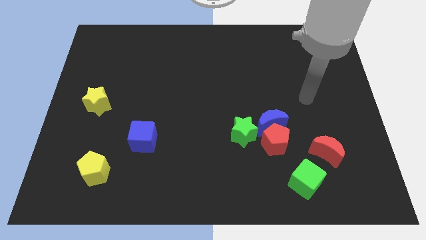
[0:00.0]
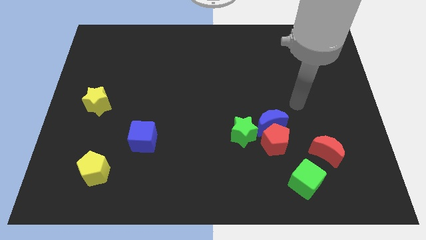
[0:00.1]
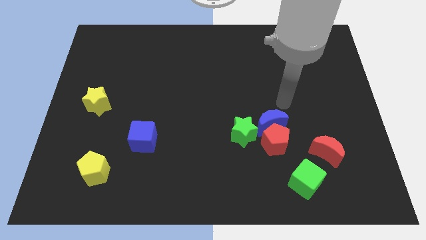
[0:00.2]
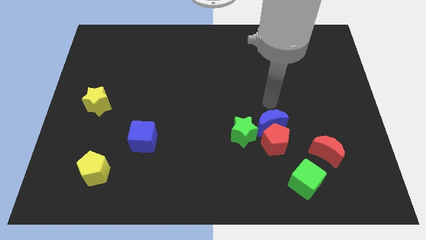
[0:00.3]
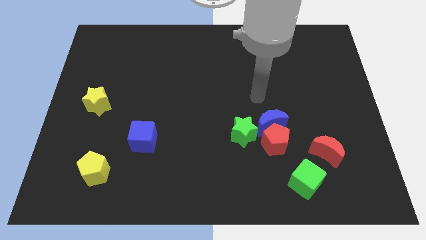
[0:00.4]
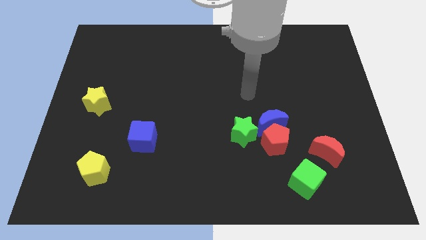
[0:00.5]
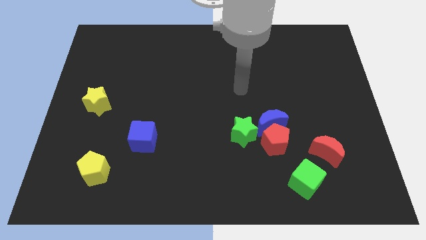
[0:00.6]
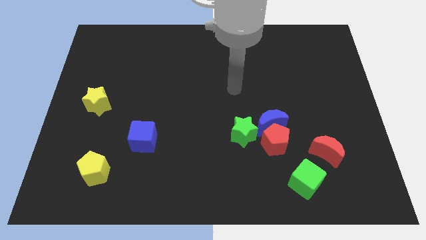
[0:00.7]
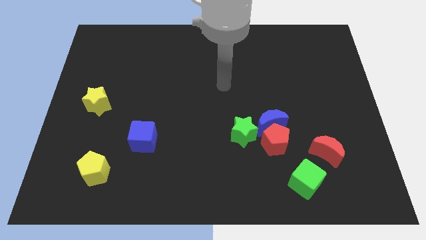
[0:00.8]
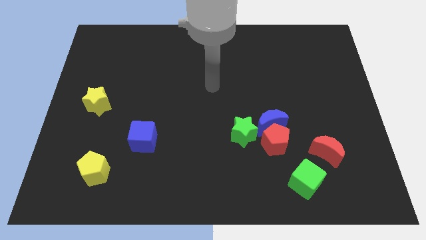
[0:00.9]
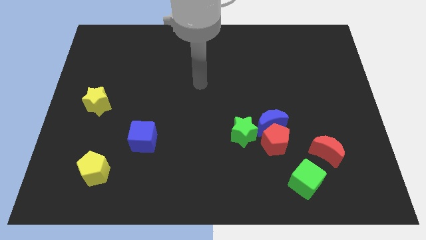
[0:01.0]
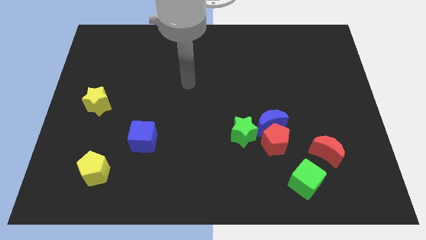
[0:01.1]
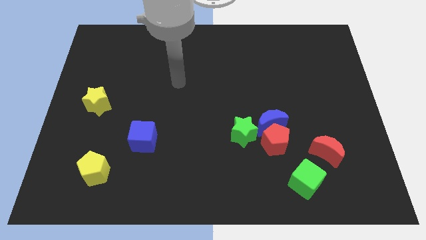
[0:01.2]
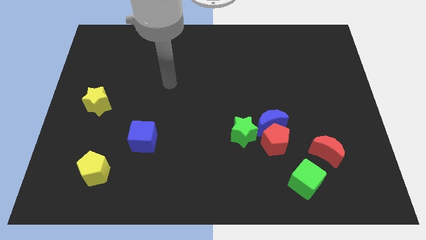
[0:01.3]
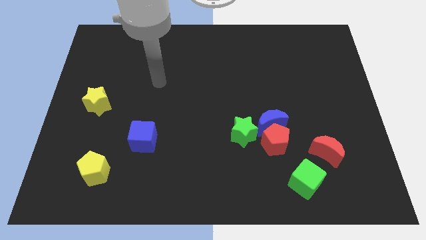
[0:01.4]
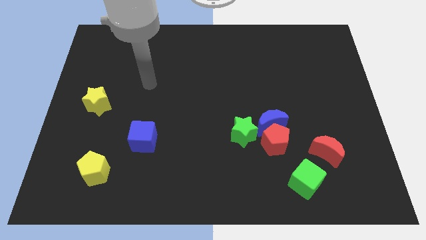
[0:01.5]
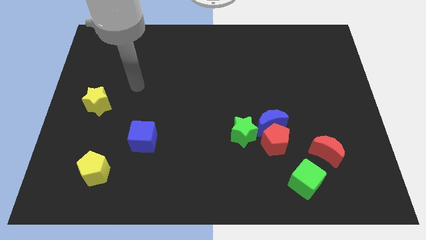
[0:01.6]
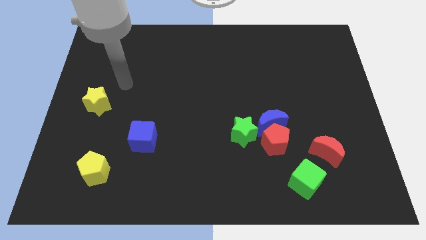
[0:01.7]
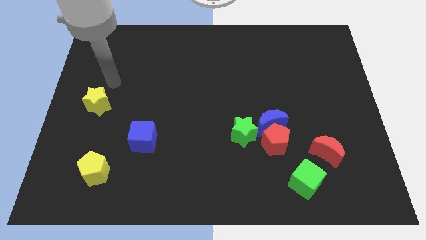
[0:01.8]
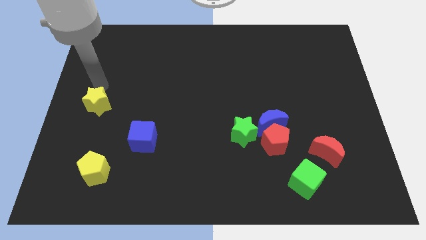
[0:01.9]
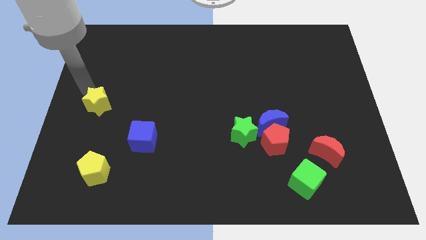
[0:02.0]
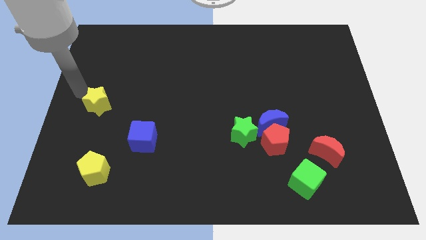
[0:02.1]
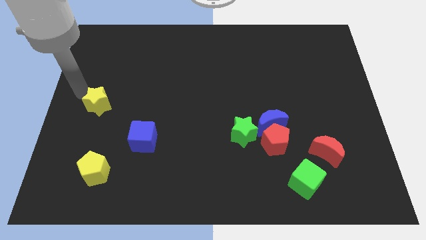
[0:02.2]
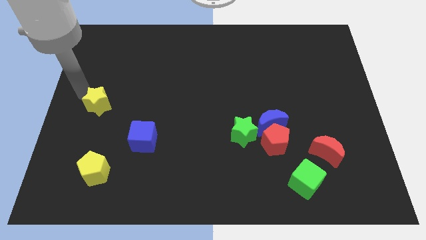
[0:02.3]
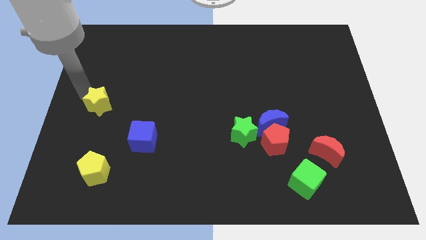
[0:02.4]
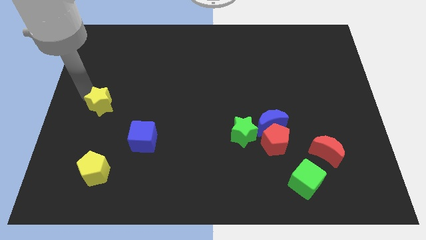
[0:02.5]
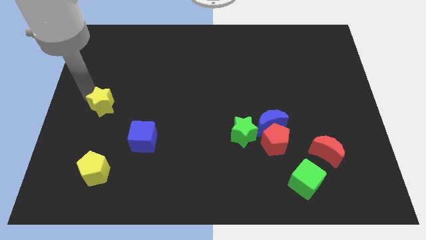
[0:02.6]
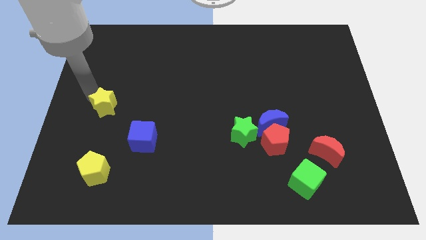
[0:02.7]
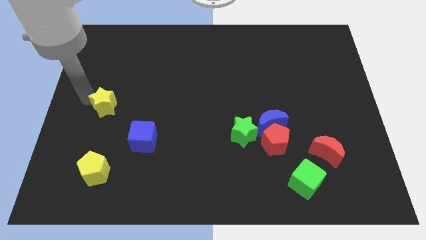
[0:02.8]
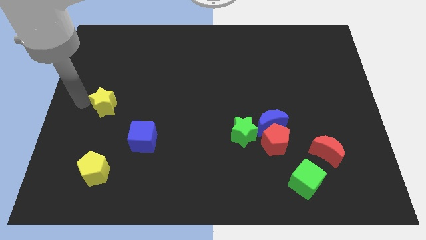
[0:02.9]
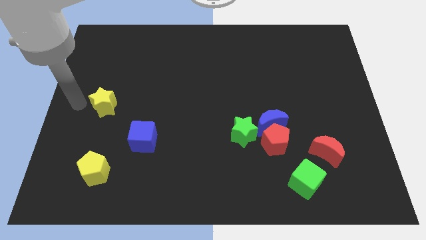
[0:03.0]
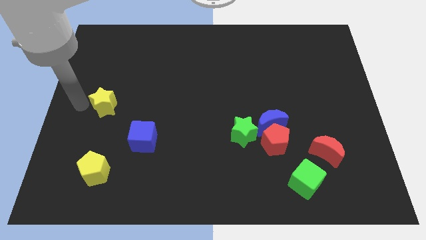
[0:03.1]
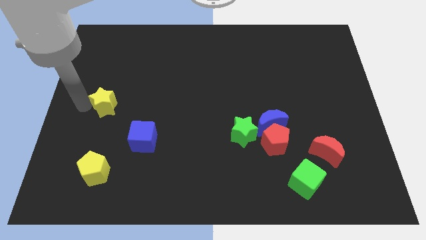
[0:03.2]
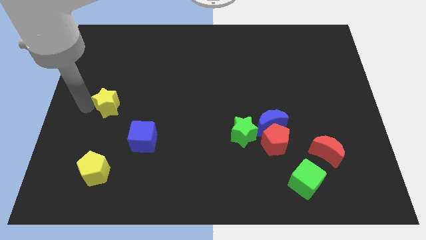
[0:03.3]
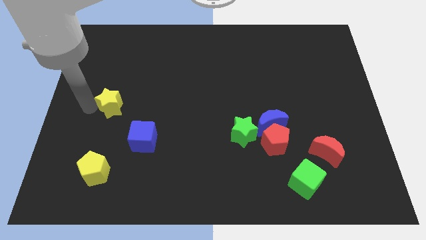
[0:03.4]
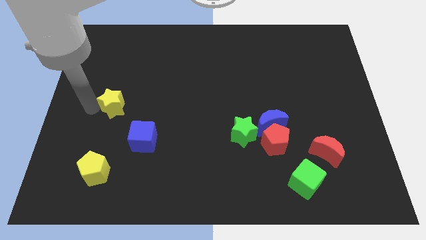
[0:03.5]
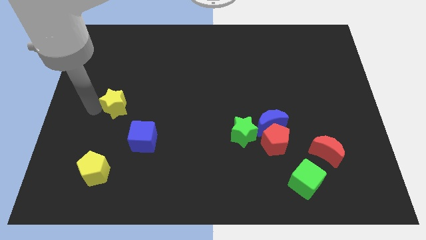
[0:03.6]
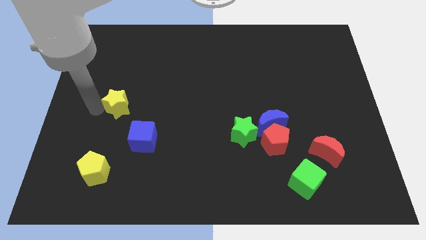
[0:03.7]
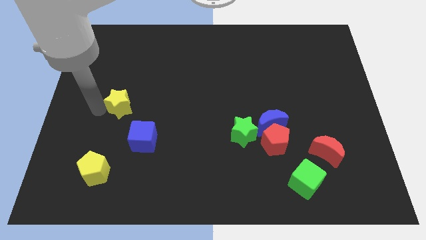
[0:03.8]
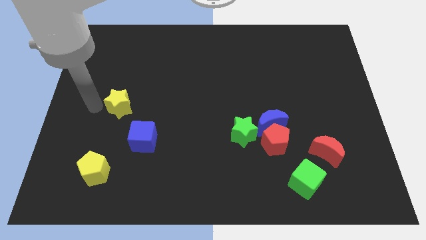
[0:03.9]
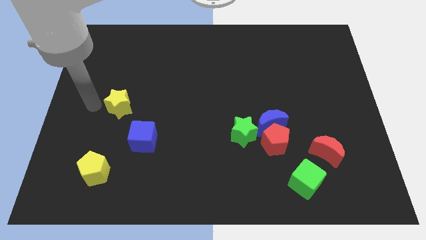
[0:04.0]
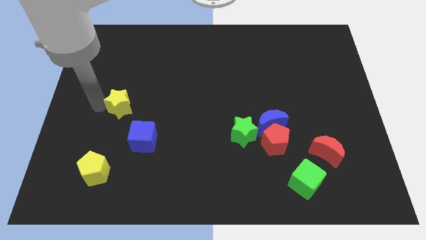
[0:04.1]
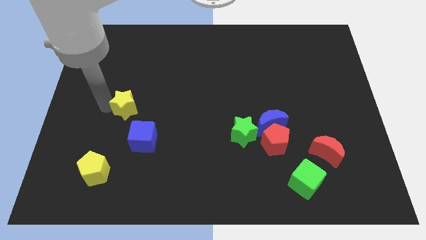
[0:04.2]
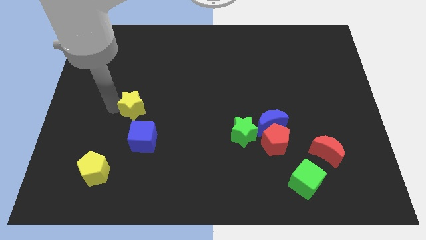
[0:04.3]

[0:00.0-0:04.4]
move the yellow star a bit right

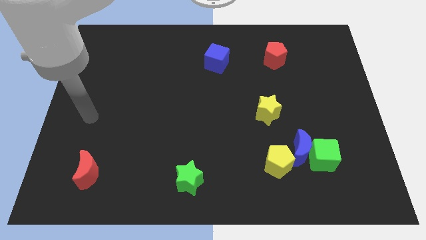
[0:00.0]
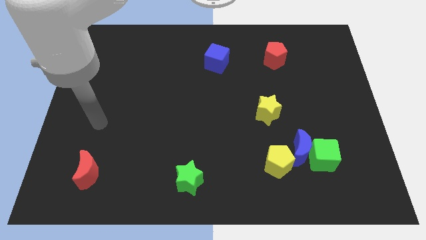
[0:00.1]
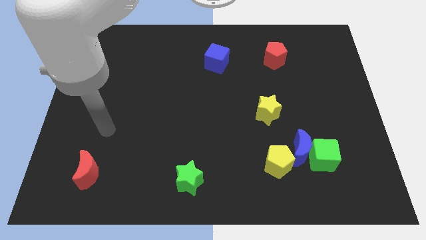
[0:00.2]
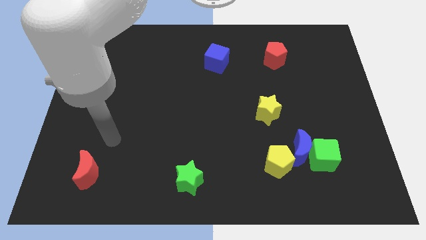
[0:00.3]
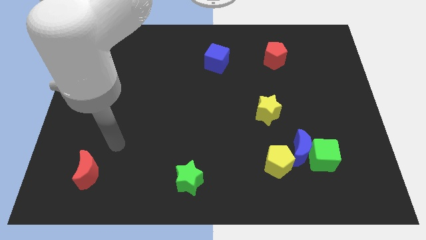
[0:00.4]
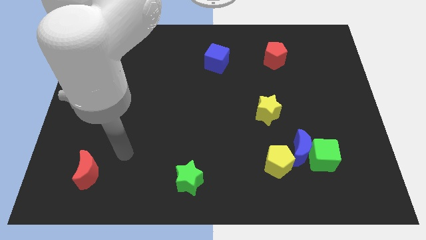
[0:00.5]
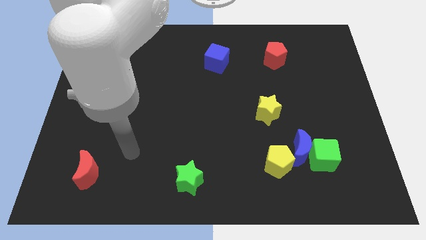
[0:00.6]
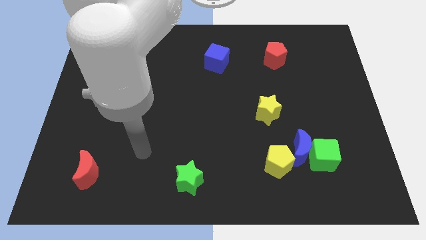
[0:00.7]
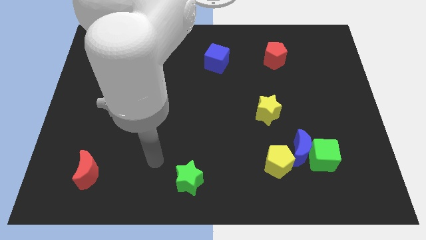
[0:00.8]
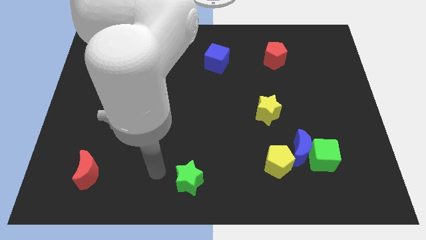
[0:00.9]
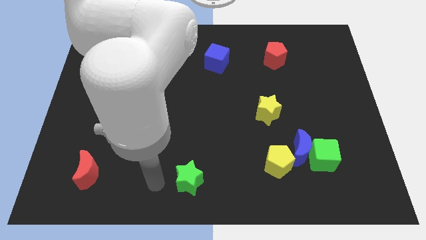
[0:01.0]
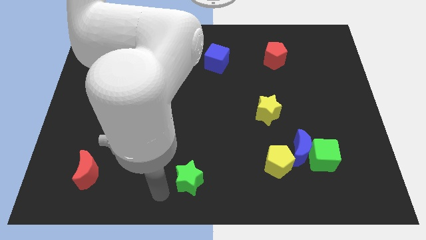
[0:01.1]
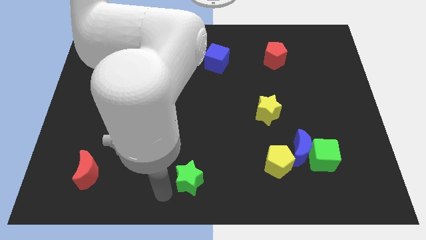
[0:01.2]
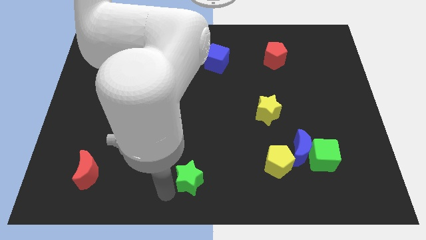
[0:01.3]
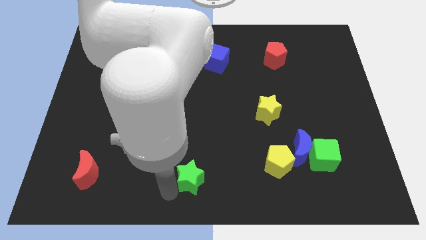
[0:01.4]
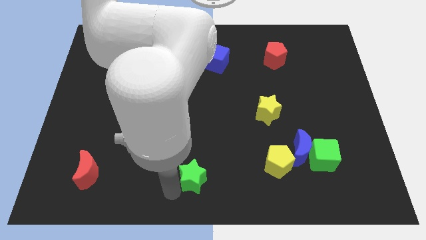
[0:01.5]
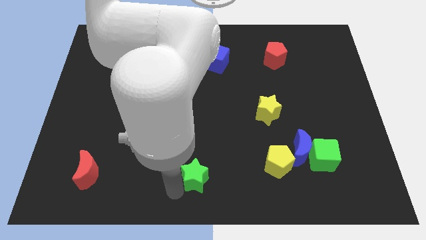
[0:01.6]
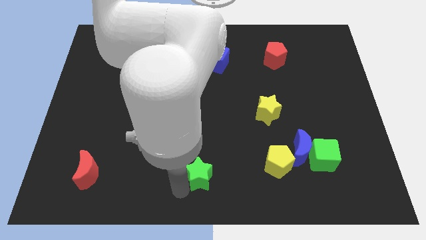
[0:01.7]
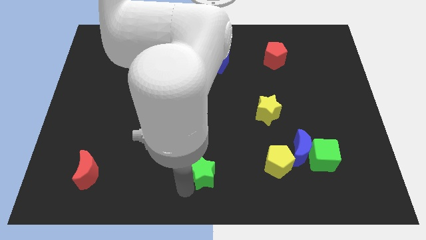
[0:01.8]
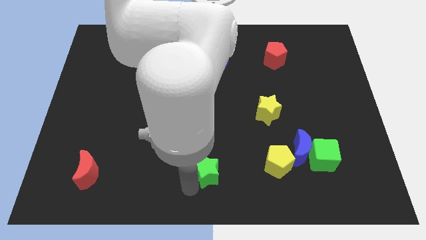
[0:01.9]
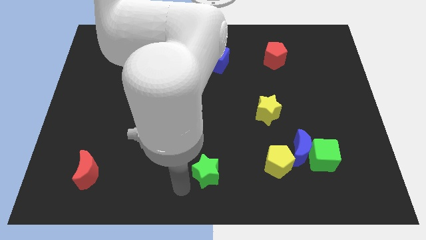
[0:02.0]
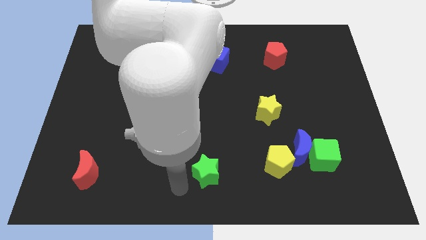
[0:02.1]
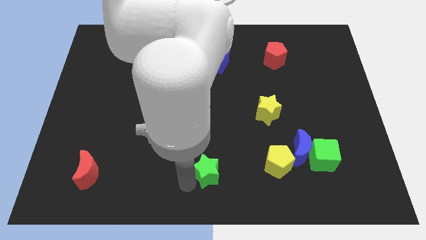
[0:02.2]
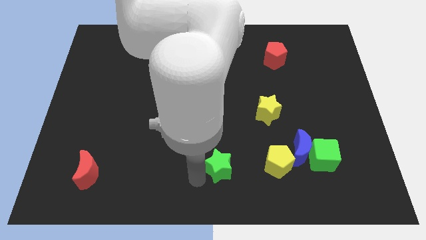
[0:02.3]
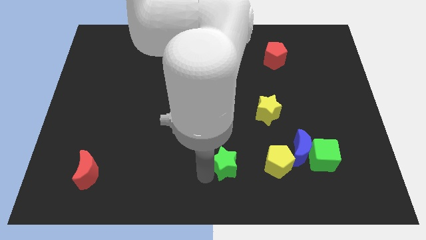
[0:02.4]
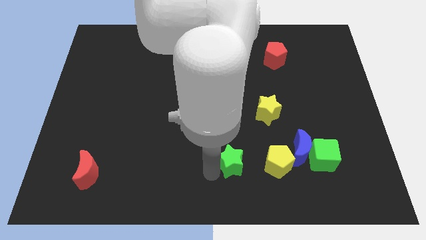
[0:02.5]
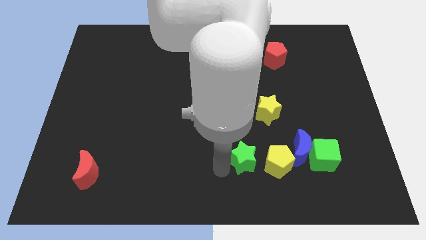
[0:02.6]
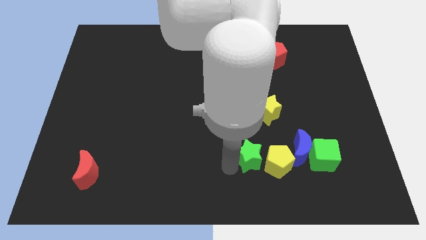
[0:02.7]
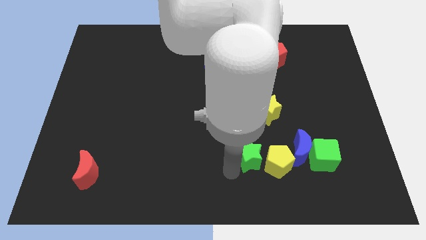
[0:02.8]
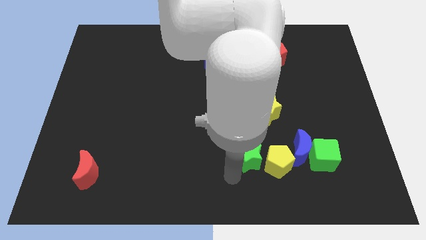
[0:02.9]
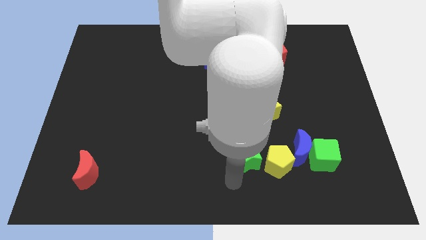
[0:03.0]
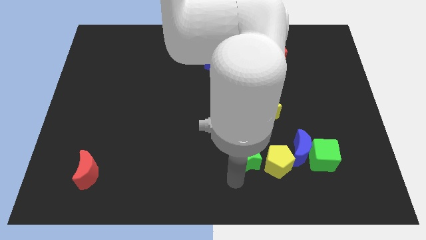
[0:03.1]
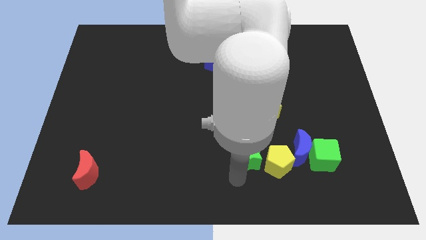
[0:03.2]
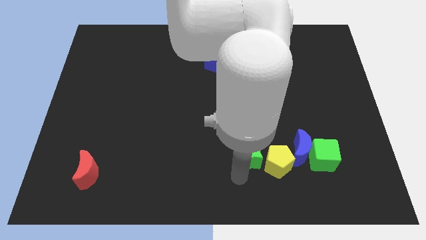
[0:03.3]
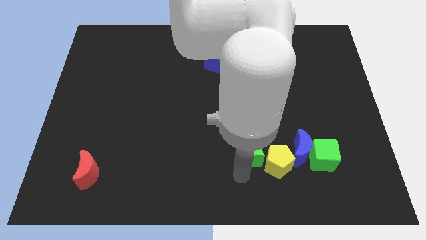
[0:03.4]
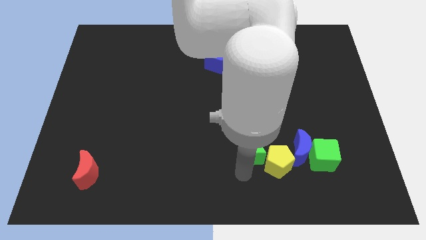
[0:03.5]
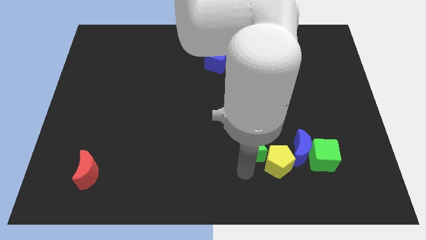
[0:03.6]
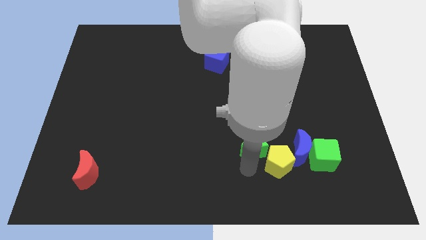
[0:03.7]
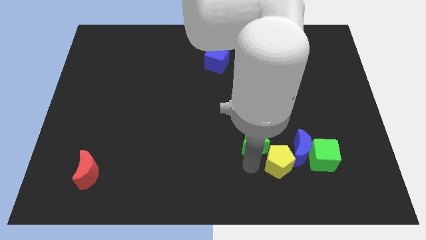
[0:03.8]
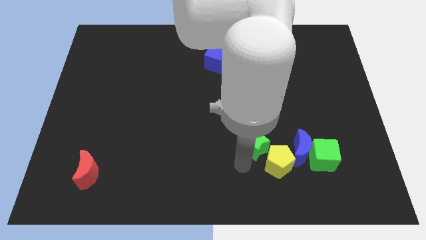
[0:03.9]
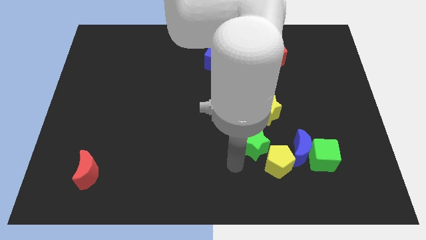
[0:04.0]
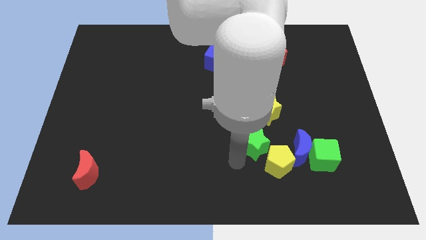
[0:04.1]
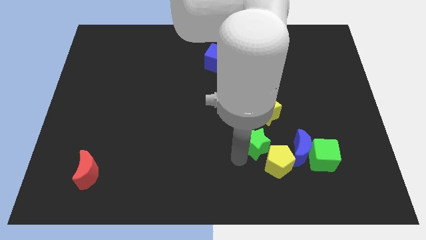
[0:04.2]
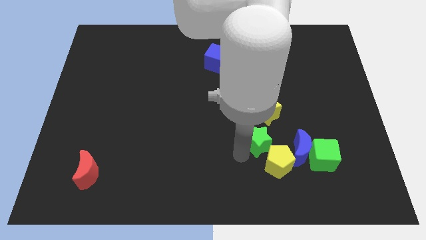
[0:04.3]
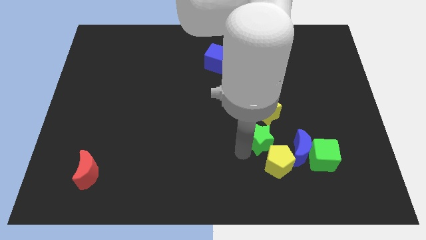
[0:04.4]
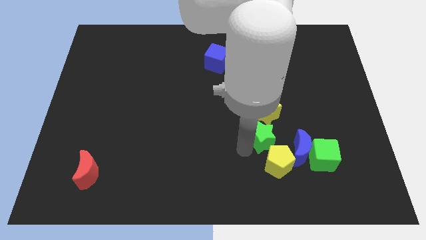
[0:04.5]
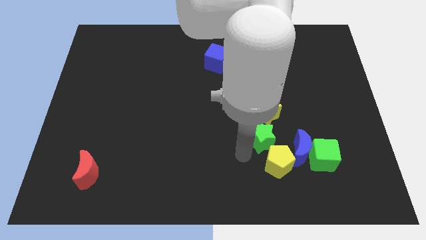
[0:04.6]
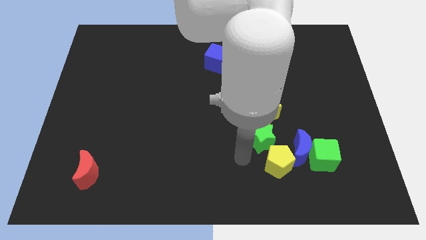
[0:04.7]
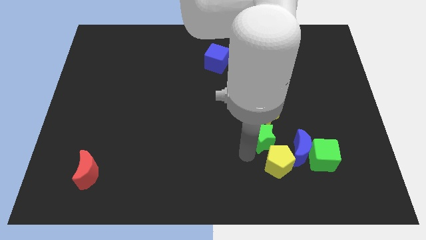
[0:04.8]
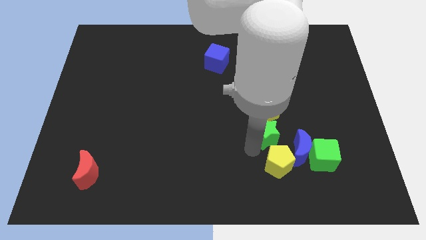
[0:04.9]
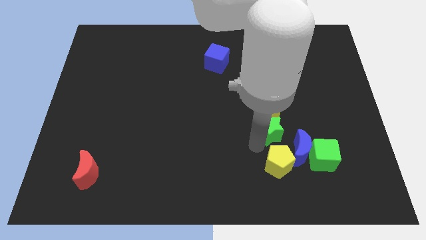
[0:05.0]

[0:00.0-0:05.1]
slide the green star upwards and to the right
